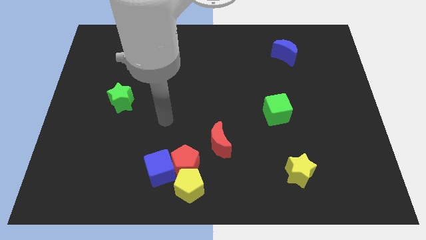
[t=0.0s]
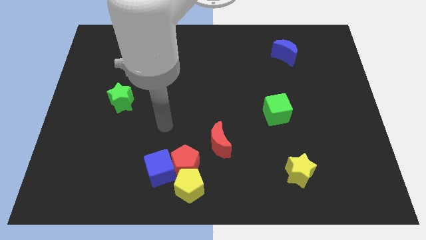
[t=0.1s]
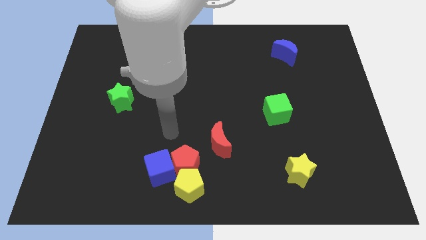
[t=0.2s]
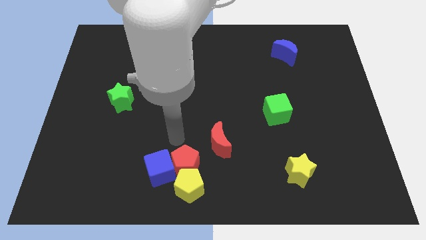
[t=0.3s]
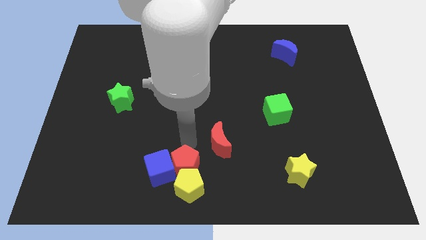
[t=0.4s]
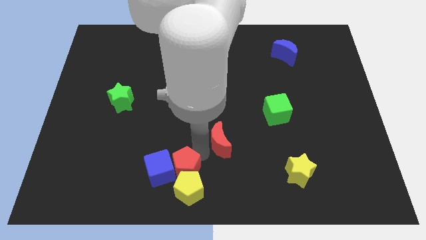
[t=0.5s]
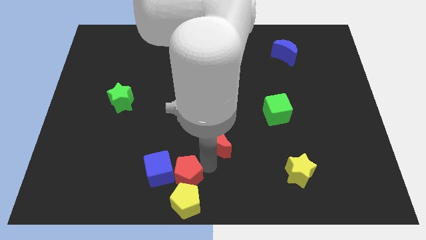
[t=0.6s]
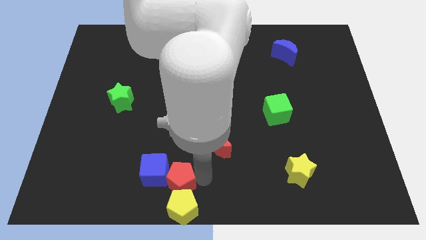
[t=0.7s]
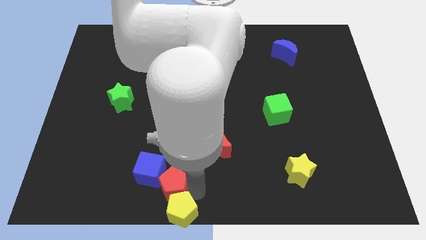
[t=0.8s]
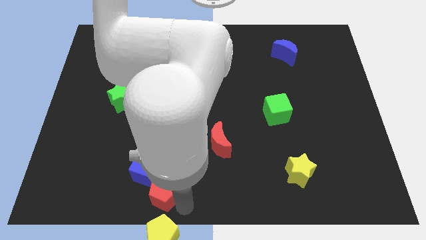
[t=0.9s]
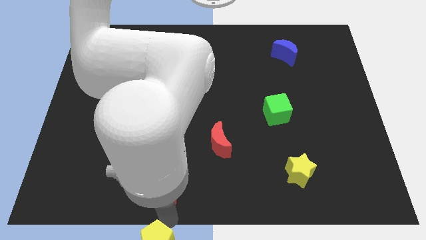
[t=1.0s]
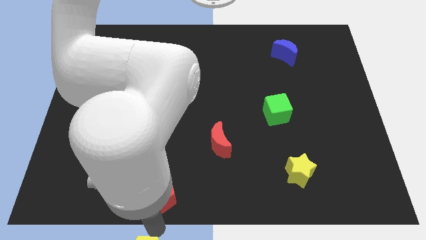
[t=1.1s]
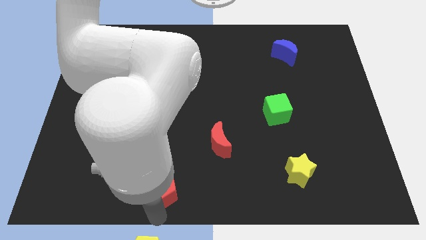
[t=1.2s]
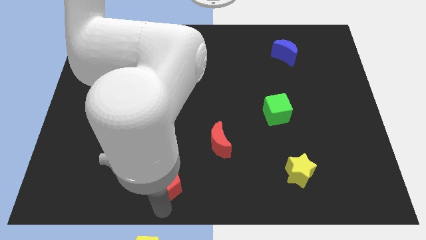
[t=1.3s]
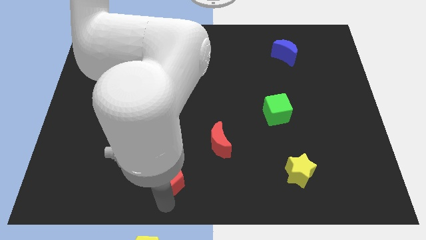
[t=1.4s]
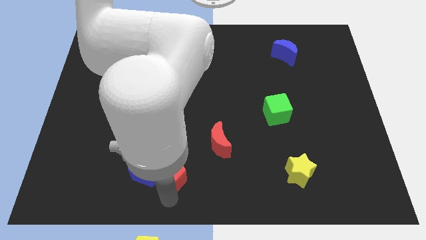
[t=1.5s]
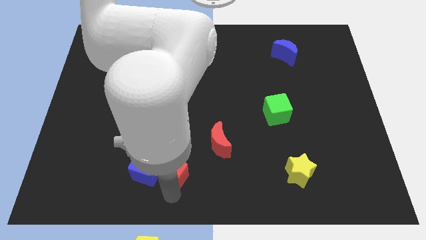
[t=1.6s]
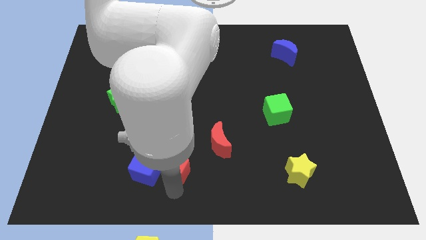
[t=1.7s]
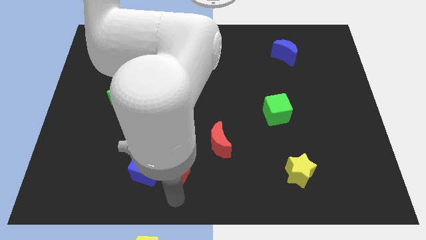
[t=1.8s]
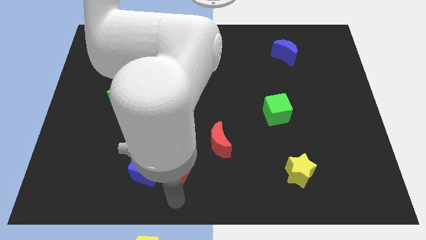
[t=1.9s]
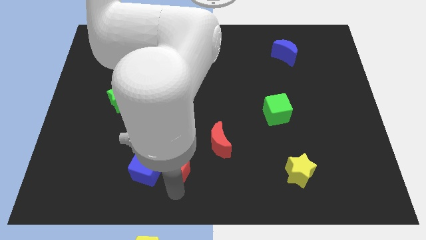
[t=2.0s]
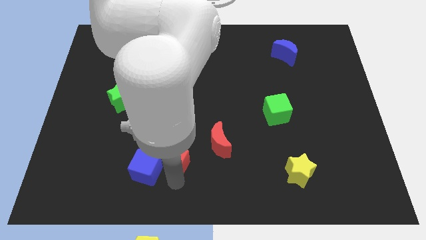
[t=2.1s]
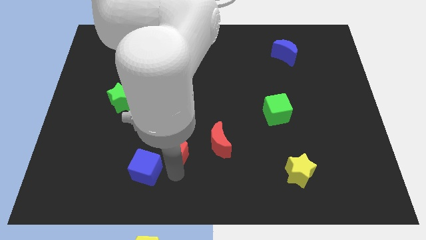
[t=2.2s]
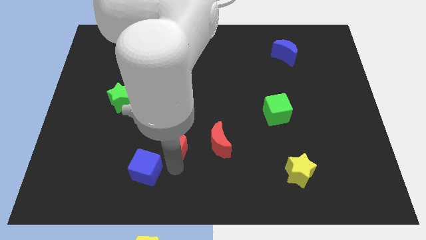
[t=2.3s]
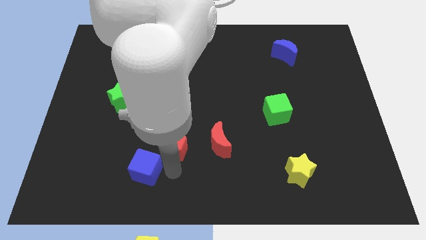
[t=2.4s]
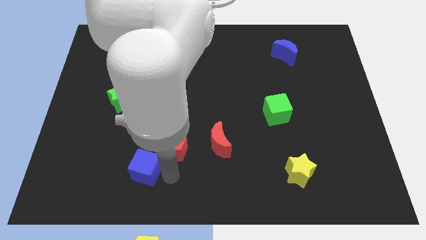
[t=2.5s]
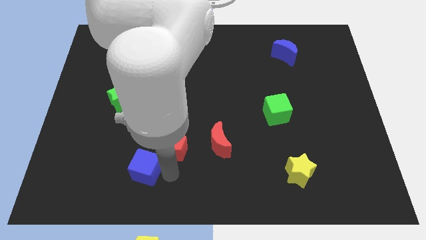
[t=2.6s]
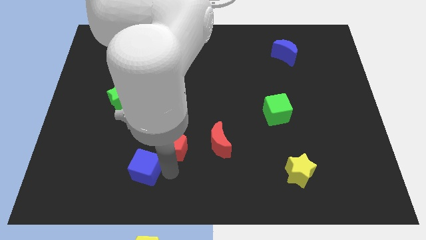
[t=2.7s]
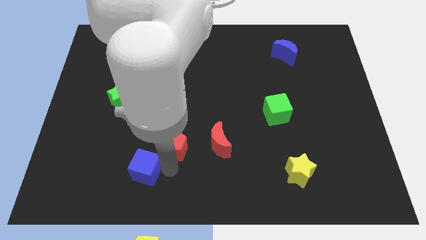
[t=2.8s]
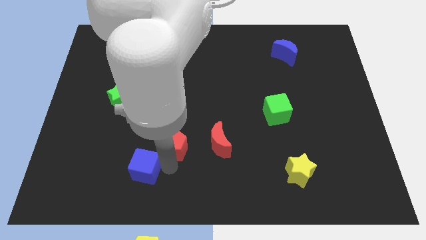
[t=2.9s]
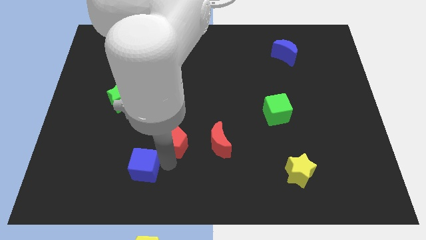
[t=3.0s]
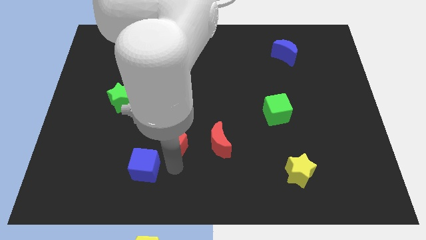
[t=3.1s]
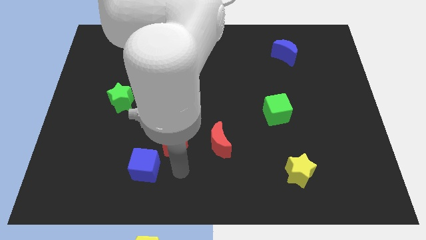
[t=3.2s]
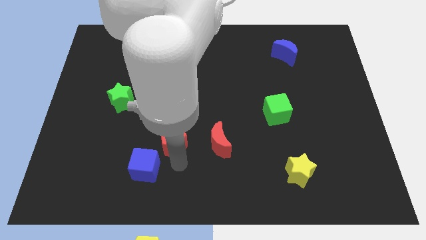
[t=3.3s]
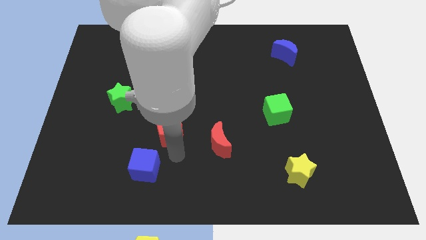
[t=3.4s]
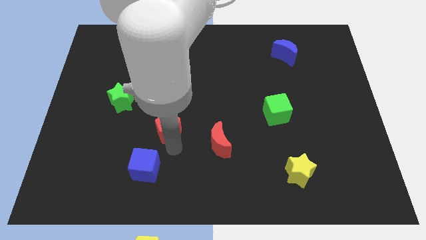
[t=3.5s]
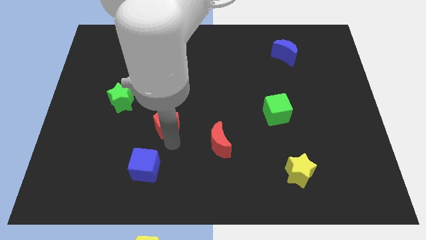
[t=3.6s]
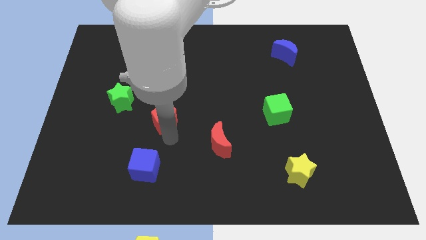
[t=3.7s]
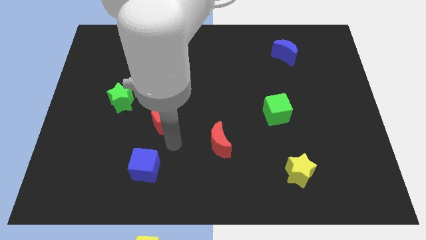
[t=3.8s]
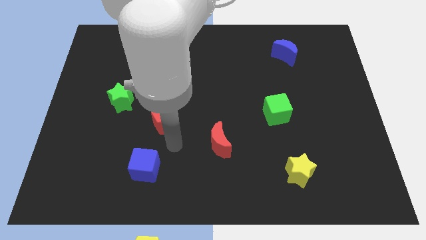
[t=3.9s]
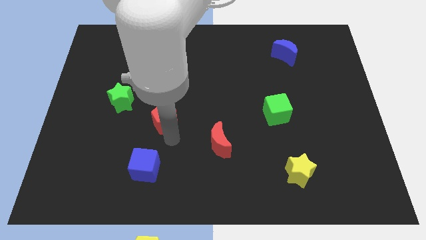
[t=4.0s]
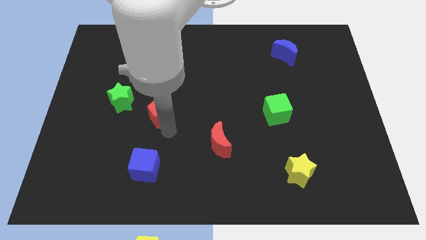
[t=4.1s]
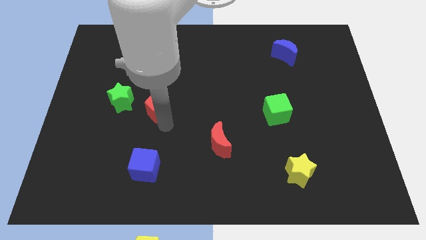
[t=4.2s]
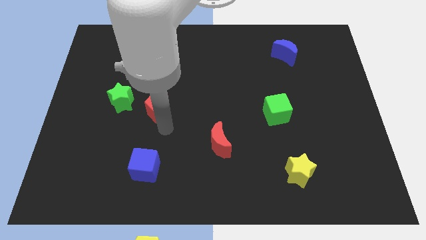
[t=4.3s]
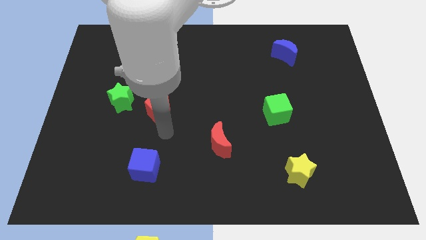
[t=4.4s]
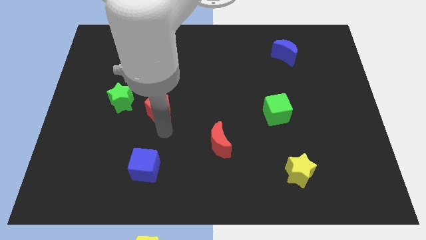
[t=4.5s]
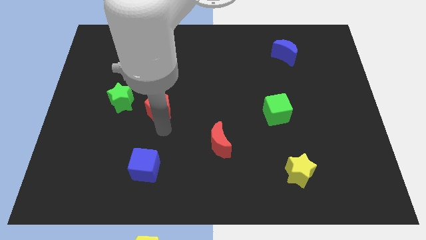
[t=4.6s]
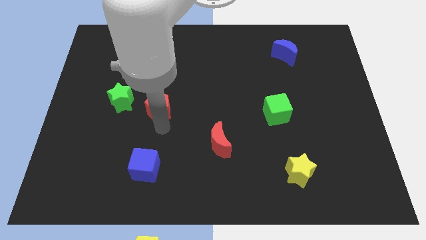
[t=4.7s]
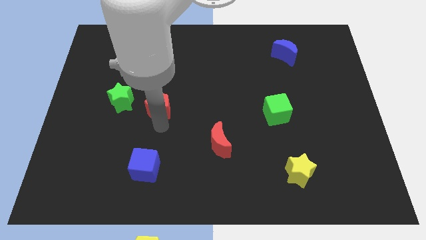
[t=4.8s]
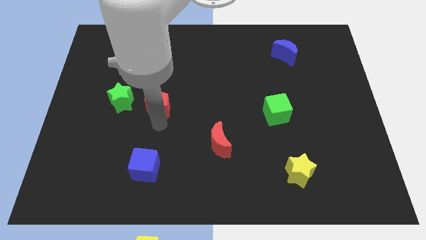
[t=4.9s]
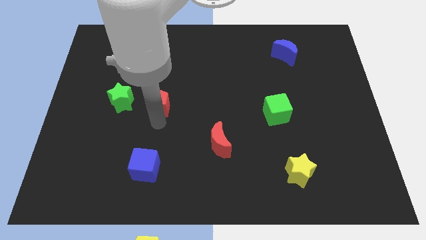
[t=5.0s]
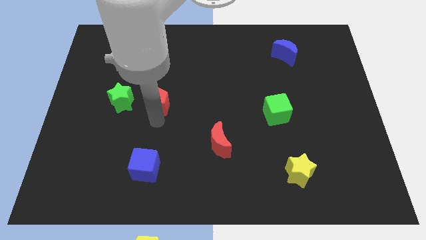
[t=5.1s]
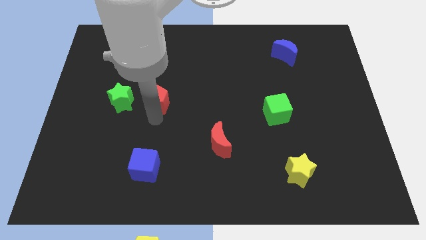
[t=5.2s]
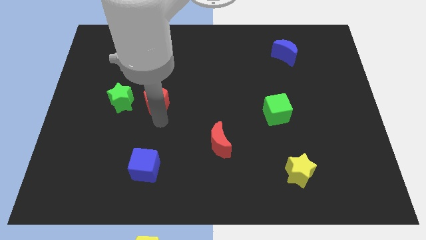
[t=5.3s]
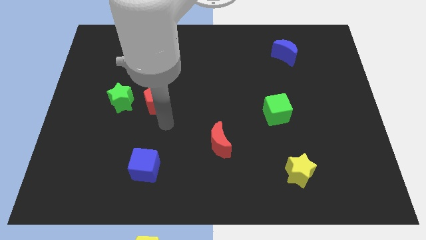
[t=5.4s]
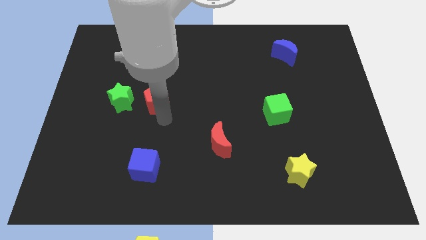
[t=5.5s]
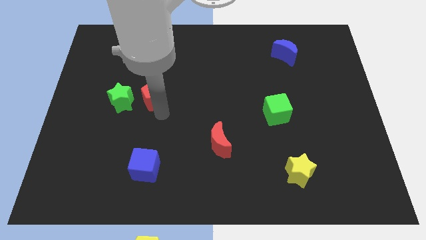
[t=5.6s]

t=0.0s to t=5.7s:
put the red pentagon to the top right of the green star

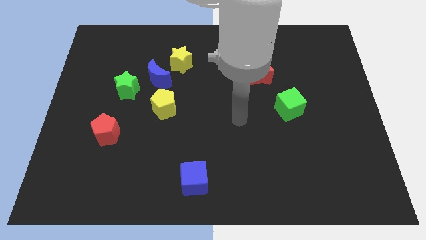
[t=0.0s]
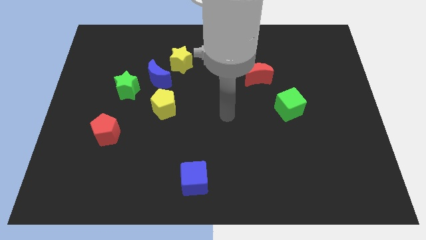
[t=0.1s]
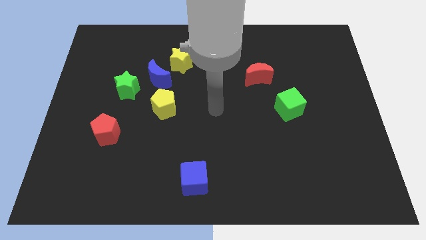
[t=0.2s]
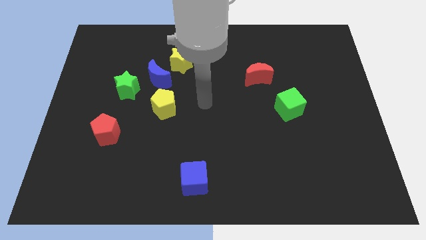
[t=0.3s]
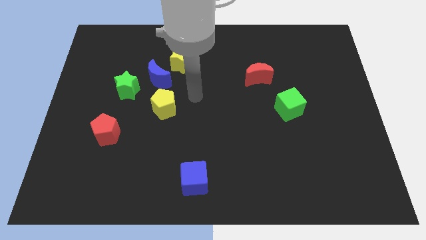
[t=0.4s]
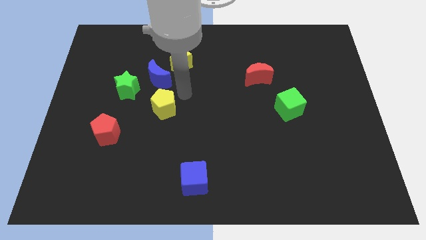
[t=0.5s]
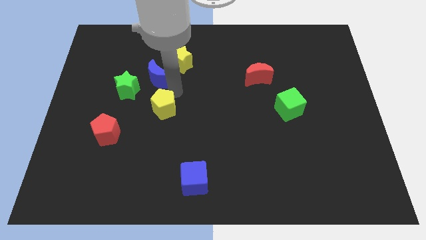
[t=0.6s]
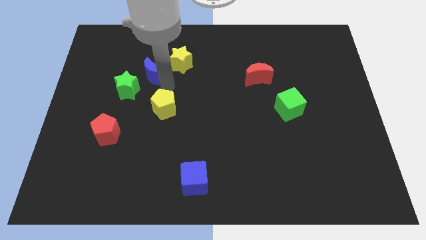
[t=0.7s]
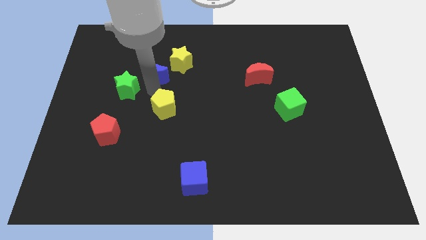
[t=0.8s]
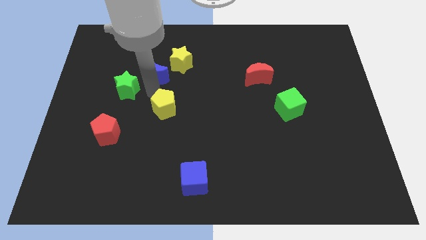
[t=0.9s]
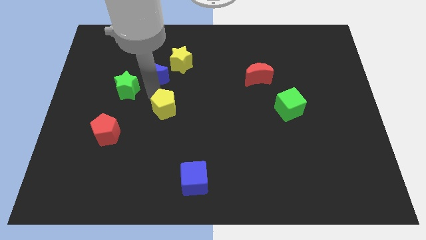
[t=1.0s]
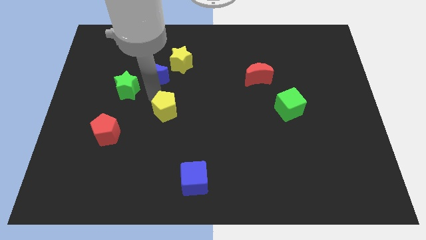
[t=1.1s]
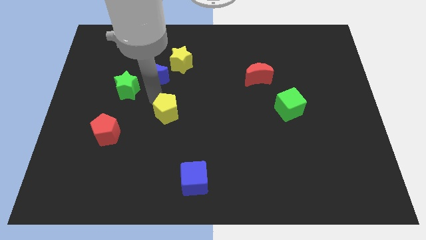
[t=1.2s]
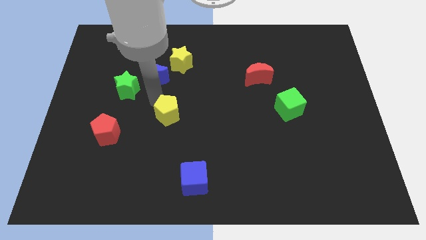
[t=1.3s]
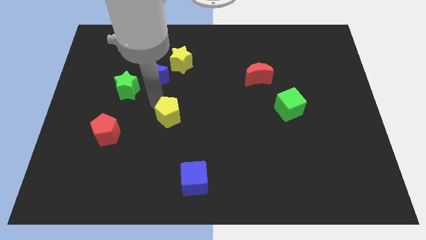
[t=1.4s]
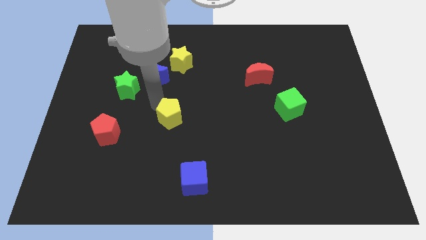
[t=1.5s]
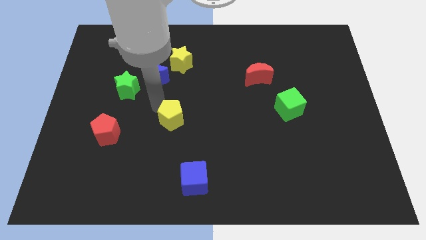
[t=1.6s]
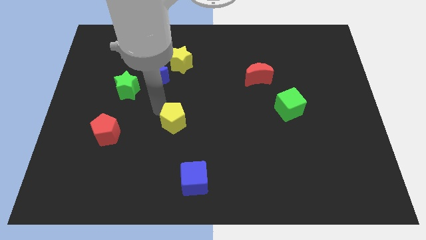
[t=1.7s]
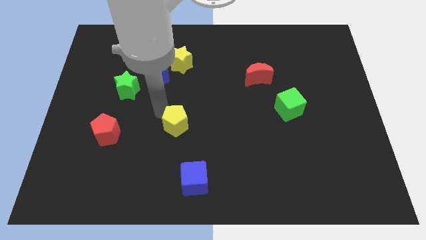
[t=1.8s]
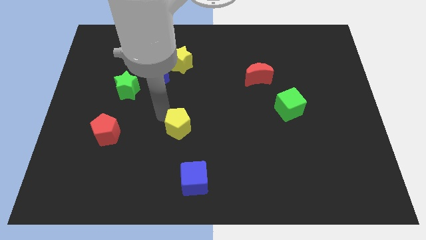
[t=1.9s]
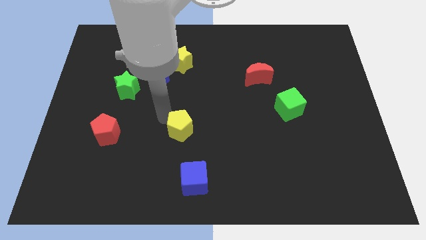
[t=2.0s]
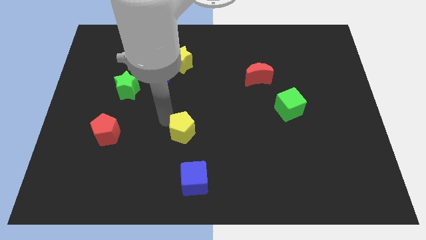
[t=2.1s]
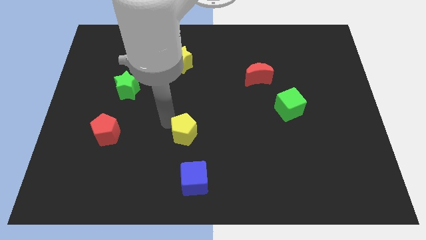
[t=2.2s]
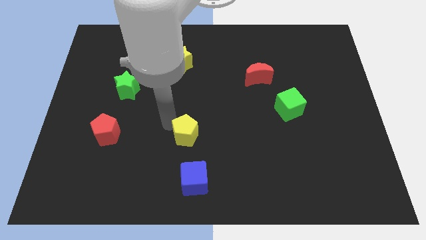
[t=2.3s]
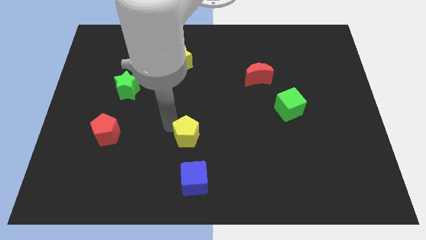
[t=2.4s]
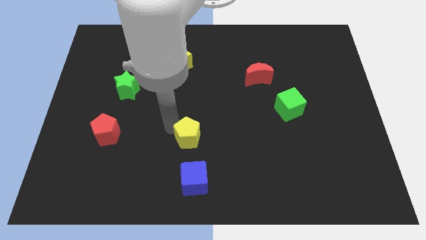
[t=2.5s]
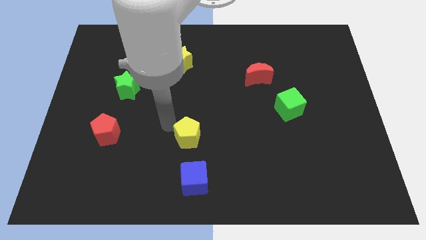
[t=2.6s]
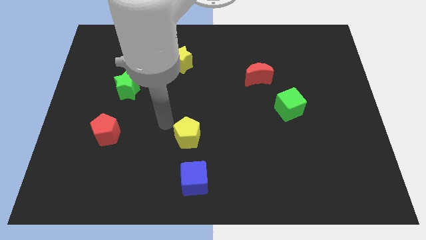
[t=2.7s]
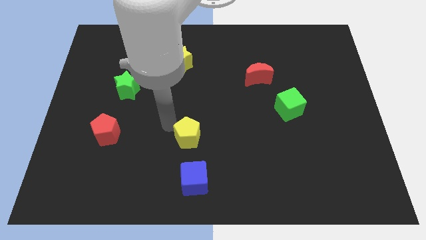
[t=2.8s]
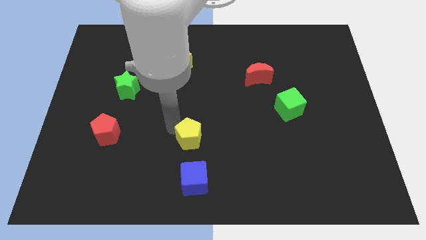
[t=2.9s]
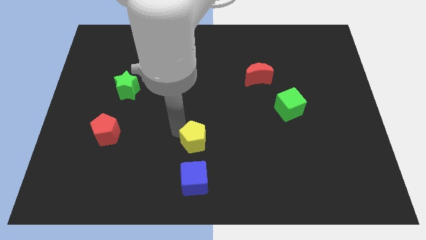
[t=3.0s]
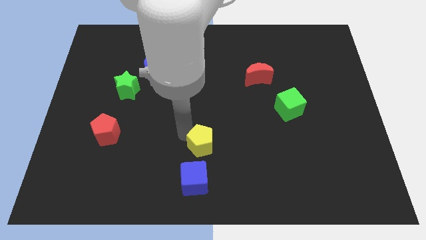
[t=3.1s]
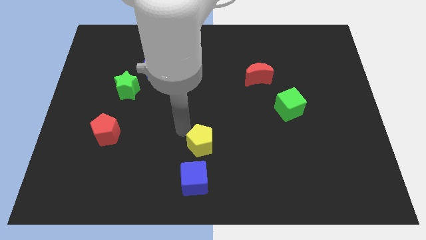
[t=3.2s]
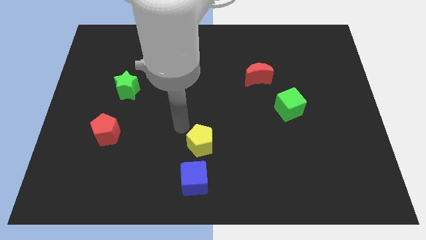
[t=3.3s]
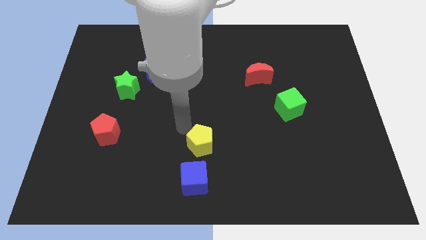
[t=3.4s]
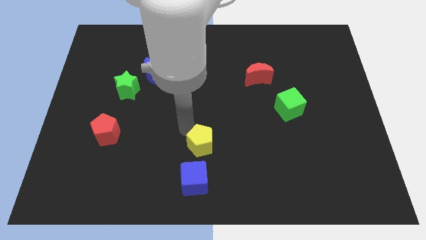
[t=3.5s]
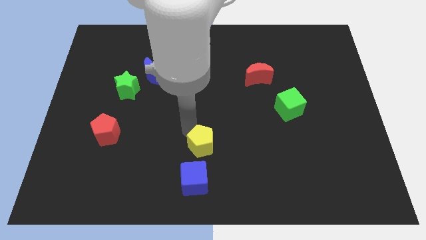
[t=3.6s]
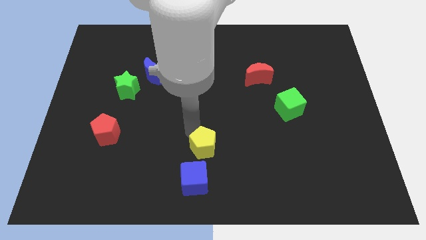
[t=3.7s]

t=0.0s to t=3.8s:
put the yellow pentagon diagonally up and to the right of the blue cube
